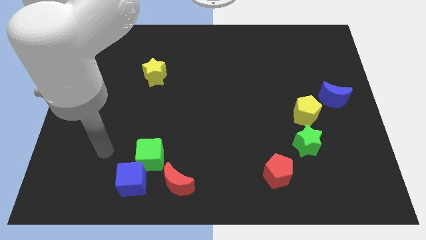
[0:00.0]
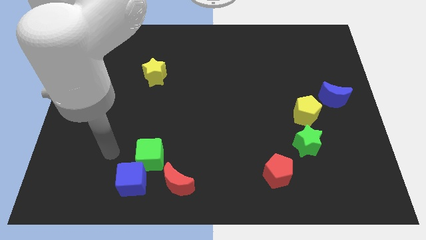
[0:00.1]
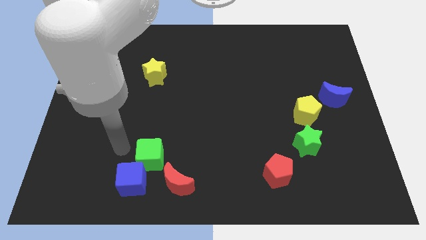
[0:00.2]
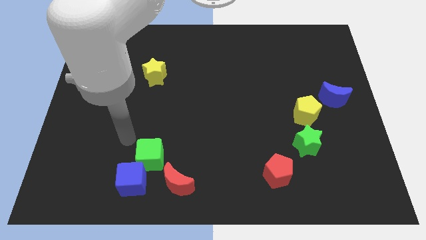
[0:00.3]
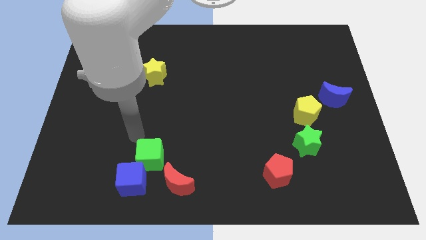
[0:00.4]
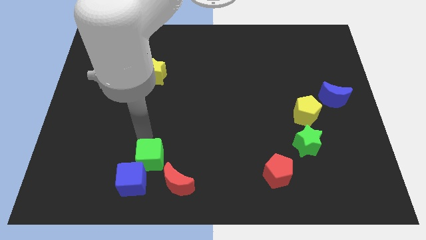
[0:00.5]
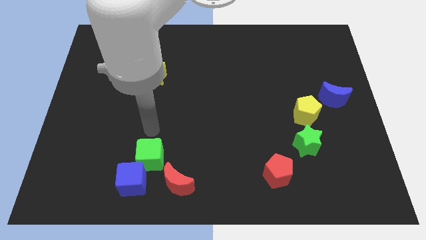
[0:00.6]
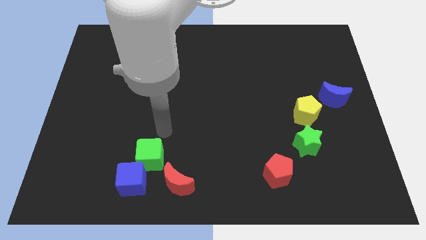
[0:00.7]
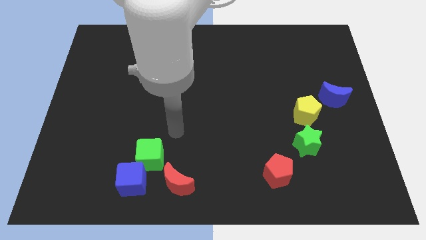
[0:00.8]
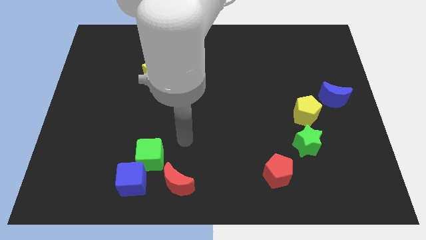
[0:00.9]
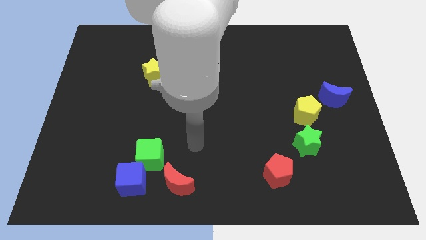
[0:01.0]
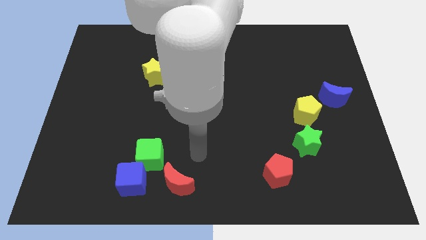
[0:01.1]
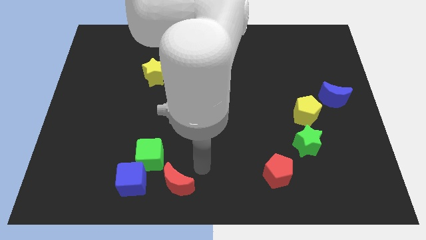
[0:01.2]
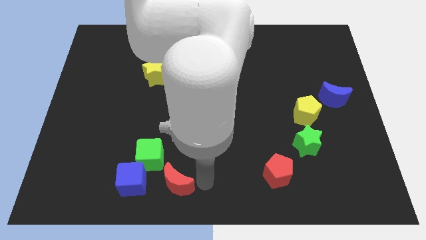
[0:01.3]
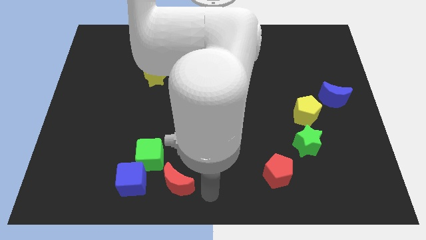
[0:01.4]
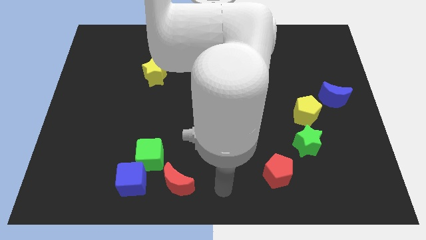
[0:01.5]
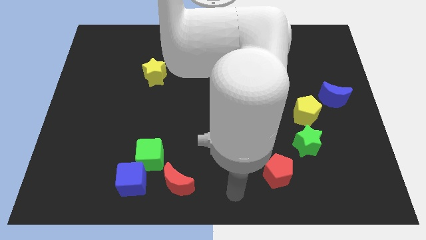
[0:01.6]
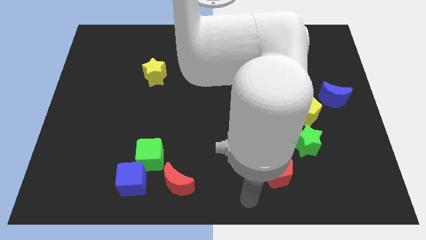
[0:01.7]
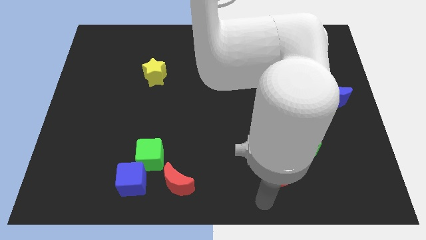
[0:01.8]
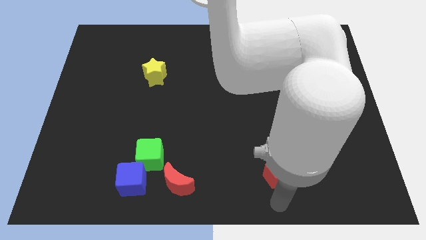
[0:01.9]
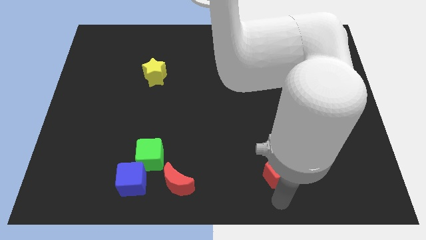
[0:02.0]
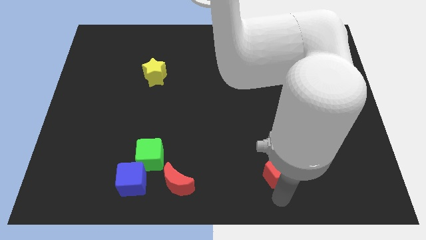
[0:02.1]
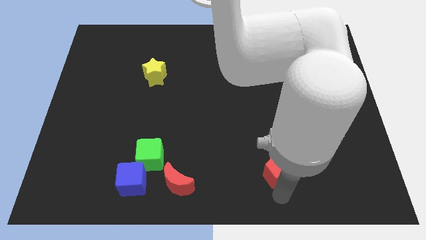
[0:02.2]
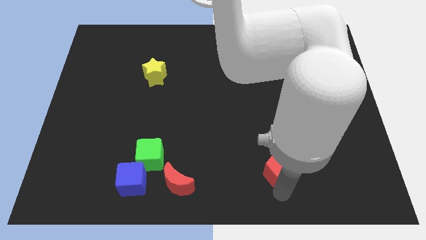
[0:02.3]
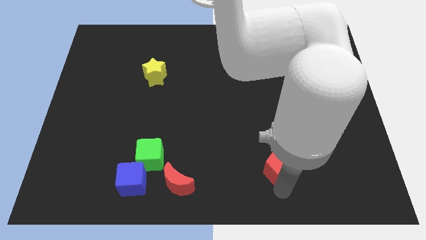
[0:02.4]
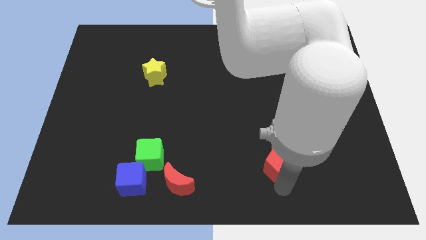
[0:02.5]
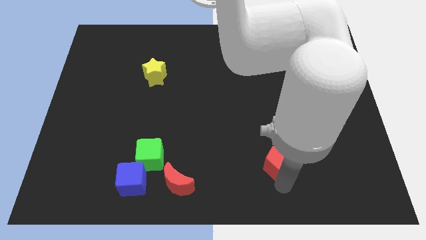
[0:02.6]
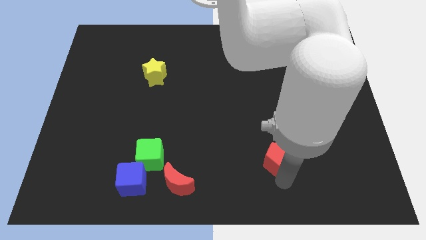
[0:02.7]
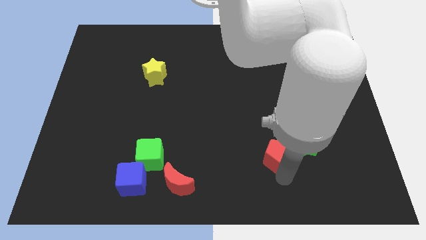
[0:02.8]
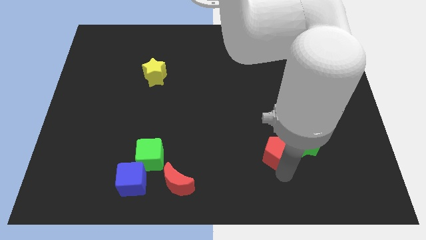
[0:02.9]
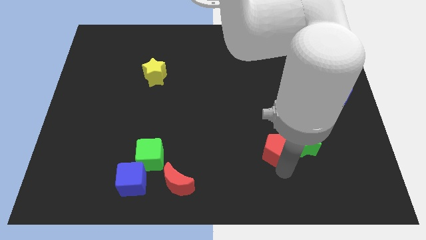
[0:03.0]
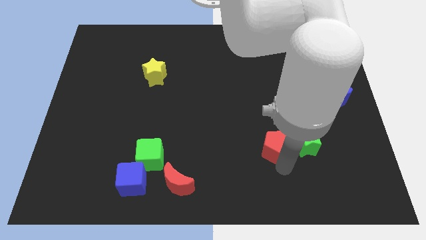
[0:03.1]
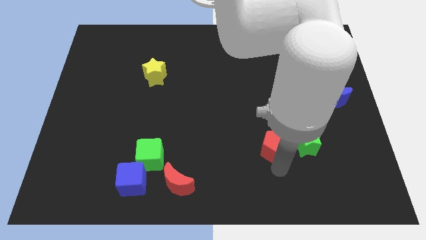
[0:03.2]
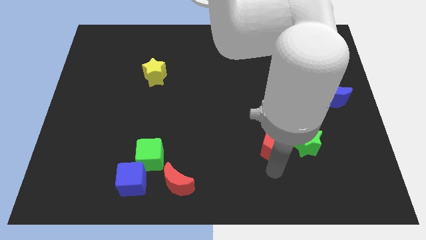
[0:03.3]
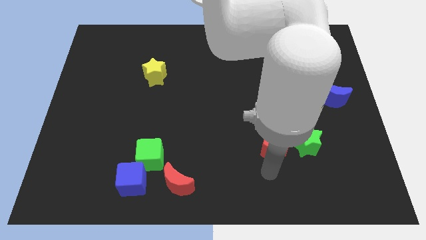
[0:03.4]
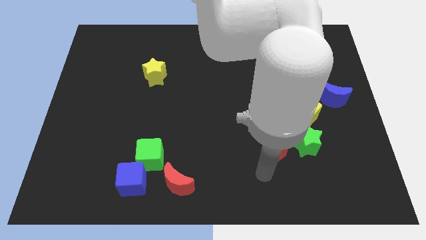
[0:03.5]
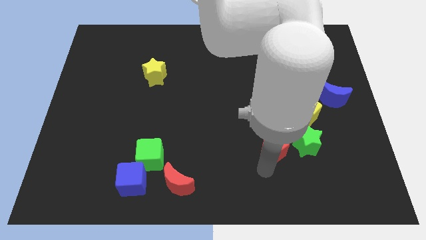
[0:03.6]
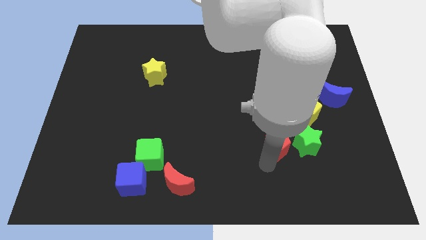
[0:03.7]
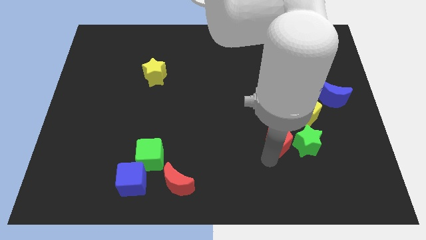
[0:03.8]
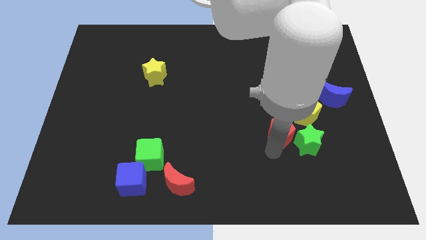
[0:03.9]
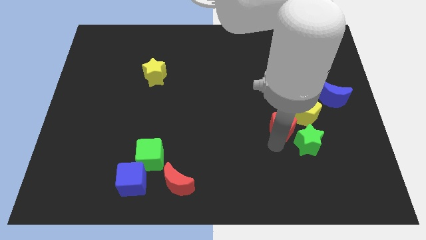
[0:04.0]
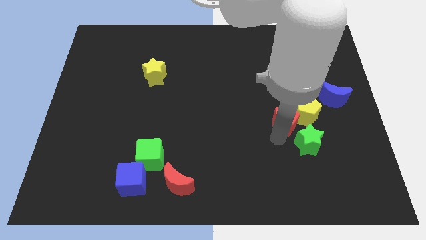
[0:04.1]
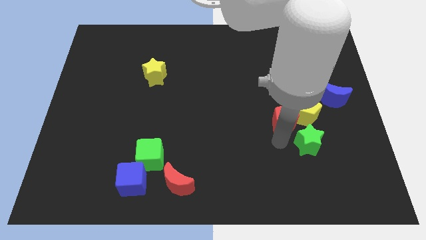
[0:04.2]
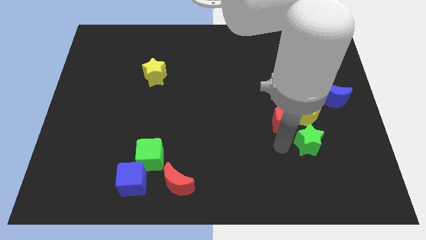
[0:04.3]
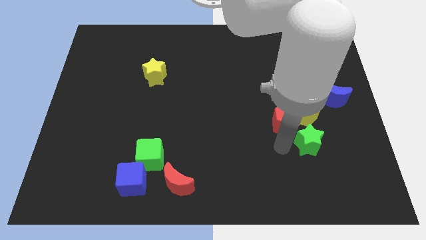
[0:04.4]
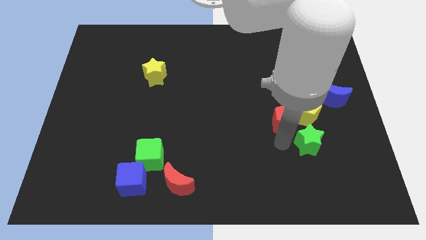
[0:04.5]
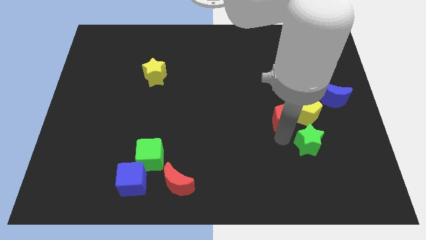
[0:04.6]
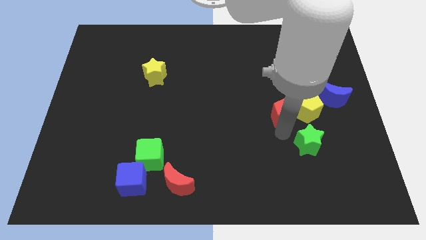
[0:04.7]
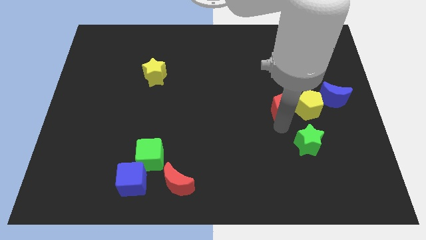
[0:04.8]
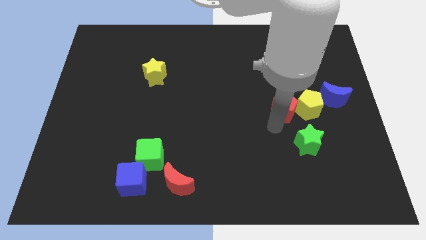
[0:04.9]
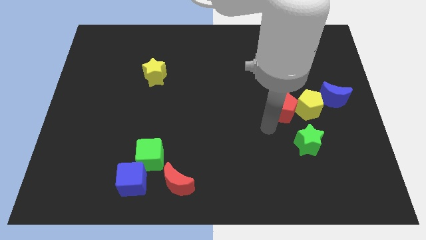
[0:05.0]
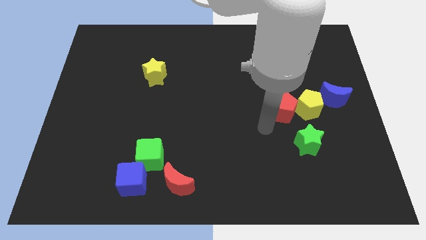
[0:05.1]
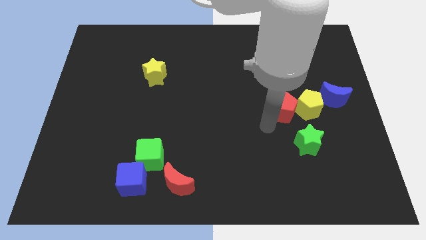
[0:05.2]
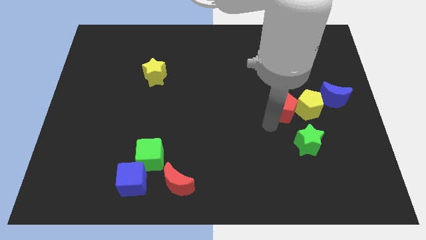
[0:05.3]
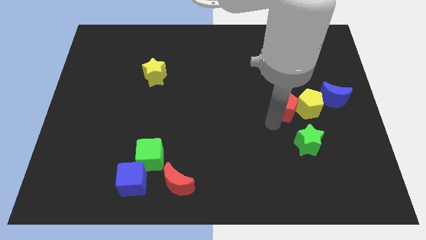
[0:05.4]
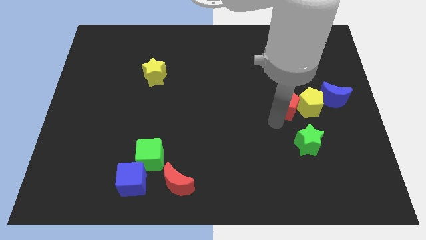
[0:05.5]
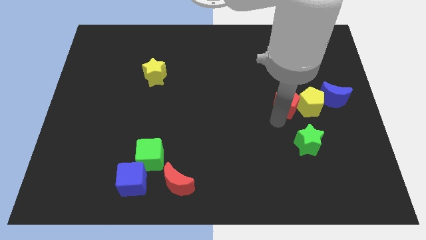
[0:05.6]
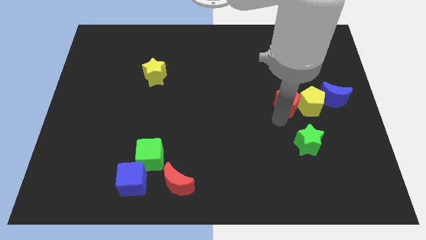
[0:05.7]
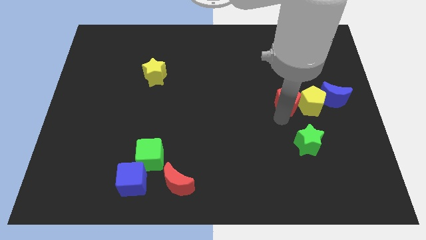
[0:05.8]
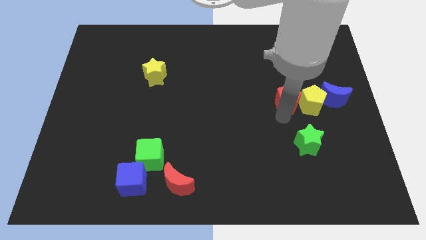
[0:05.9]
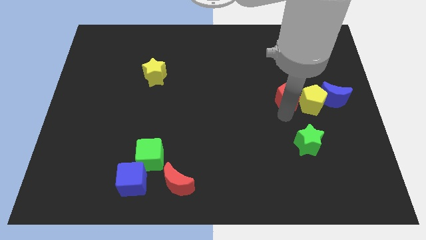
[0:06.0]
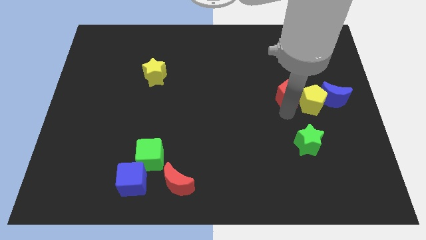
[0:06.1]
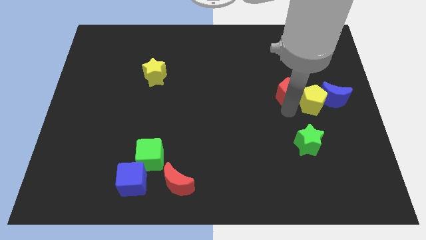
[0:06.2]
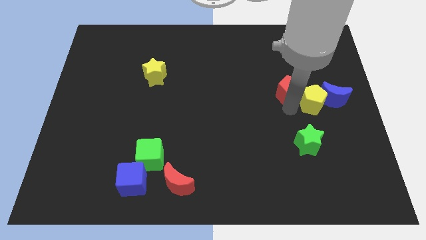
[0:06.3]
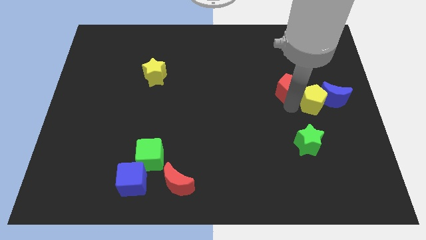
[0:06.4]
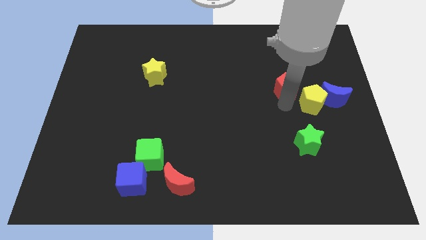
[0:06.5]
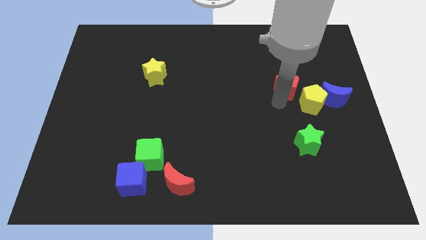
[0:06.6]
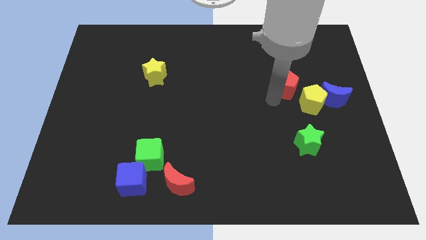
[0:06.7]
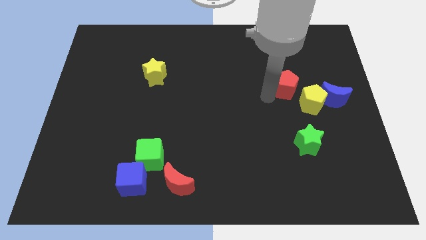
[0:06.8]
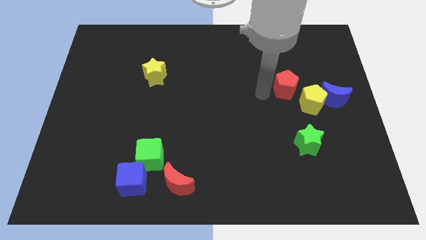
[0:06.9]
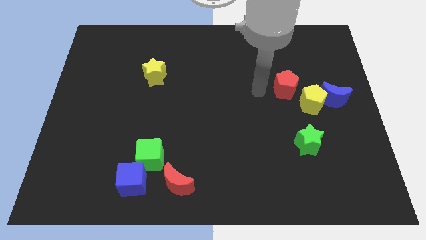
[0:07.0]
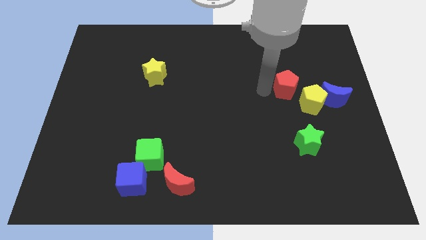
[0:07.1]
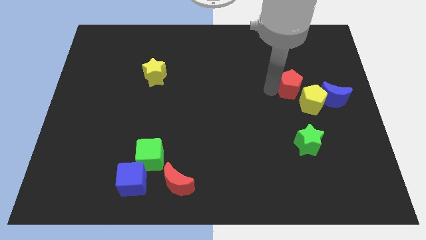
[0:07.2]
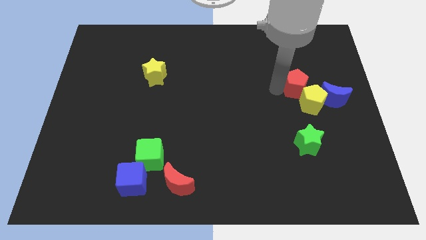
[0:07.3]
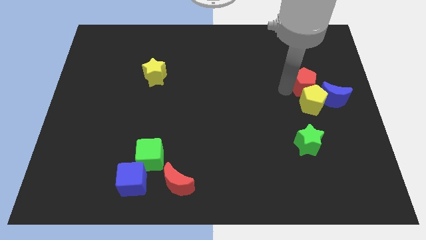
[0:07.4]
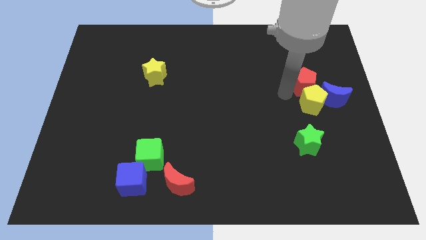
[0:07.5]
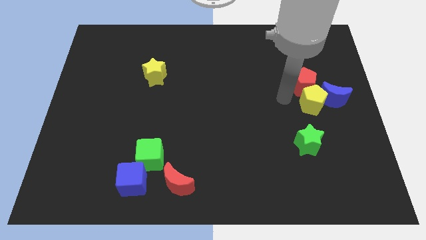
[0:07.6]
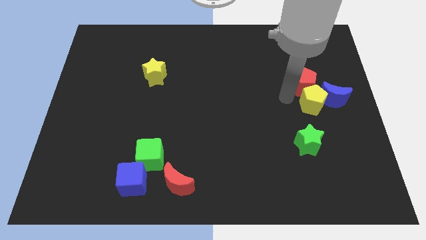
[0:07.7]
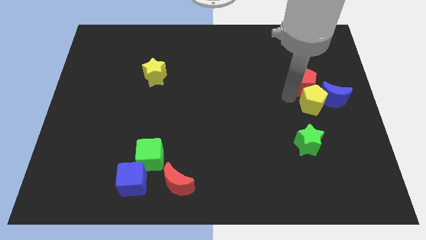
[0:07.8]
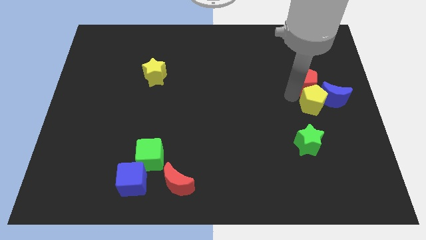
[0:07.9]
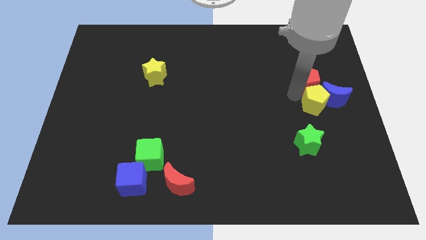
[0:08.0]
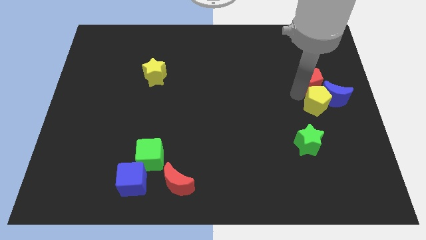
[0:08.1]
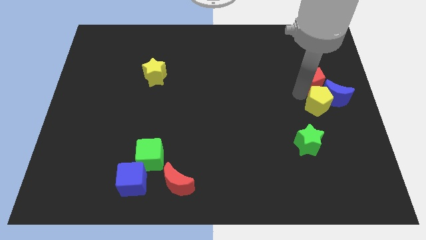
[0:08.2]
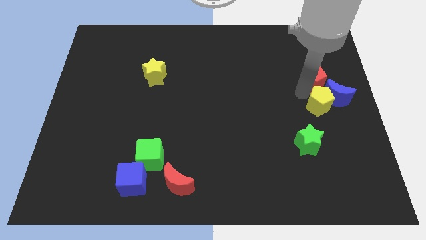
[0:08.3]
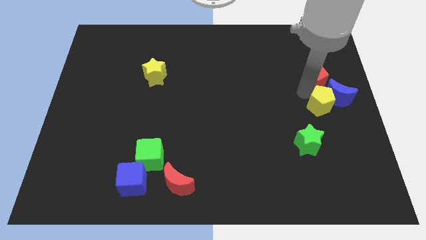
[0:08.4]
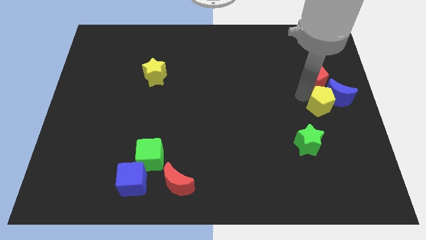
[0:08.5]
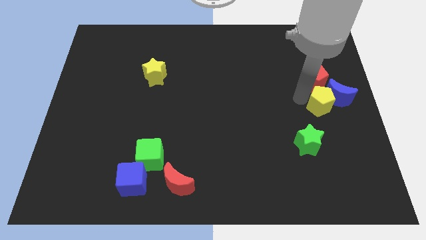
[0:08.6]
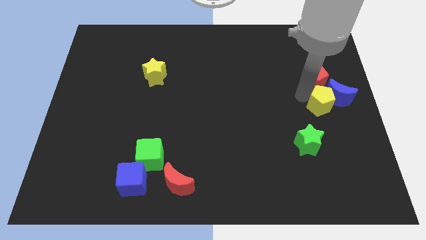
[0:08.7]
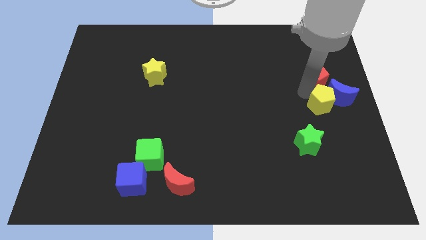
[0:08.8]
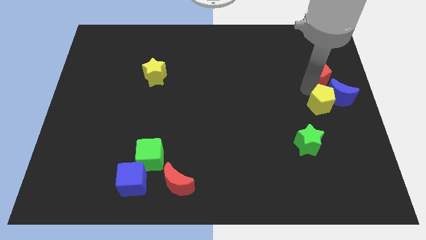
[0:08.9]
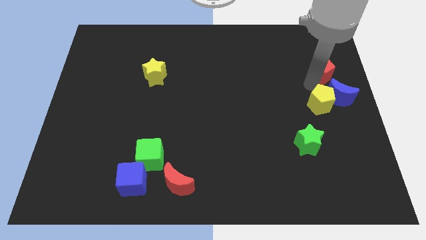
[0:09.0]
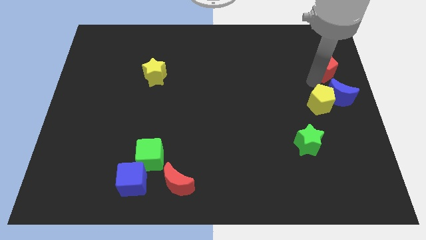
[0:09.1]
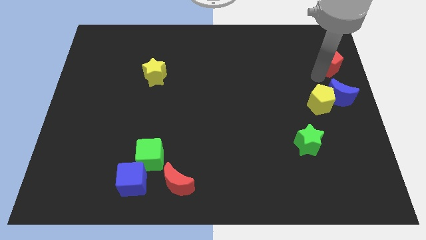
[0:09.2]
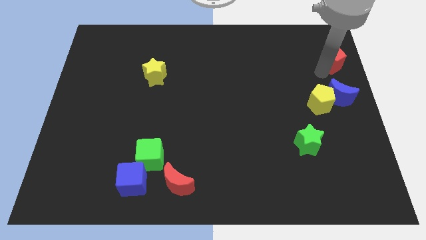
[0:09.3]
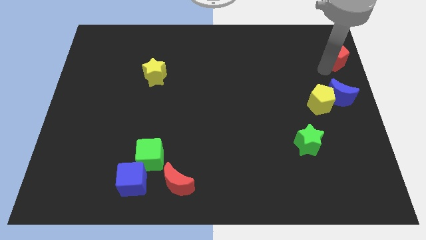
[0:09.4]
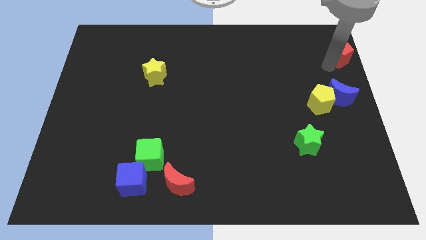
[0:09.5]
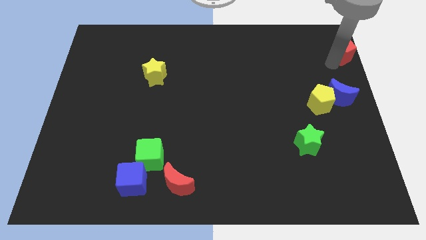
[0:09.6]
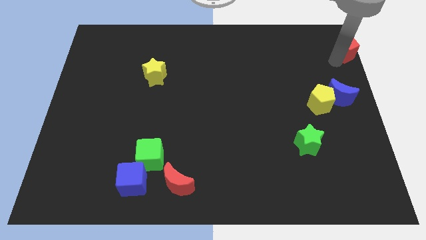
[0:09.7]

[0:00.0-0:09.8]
slide the red pentagon to the top right of the board
